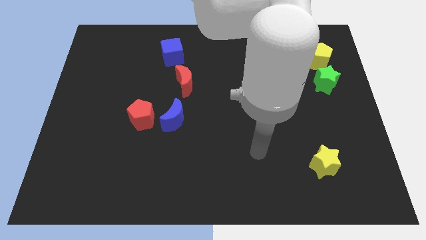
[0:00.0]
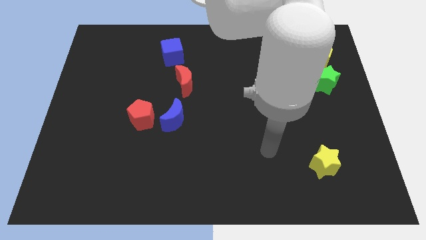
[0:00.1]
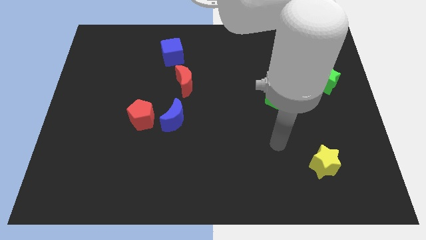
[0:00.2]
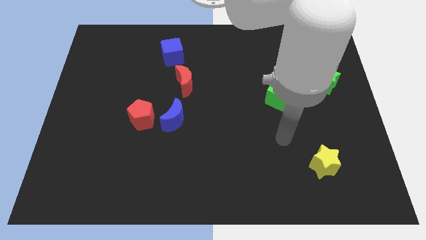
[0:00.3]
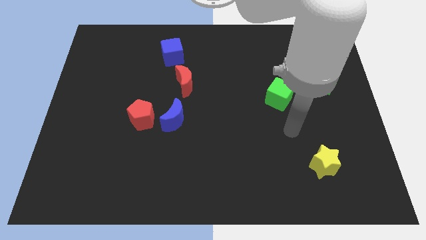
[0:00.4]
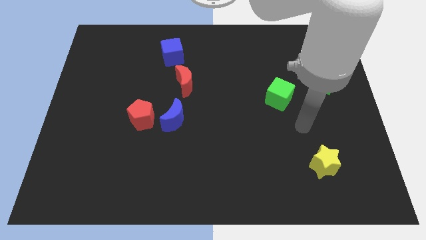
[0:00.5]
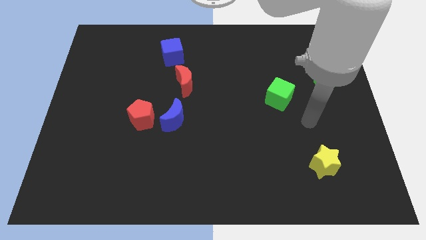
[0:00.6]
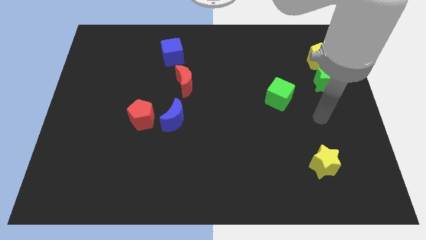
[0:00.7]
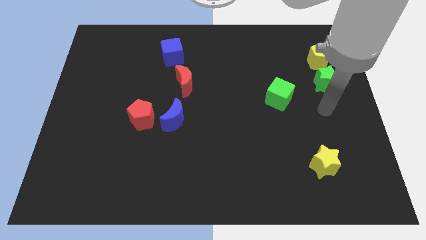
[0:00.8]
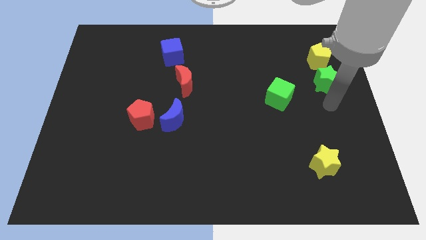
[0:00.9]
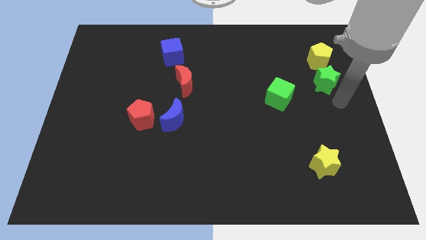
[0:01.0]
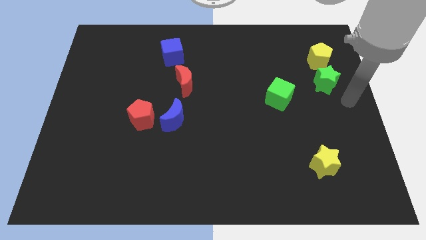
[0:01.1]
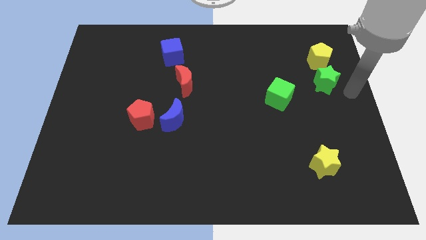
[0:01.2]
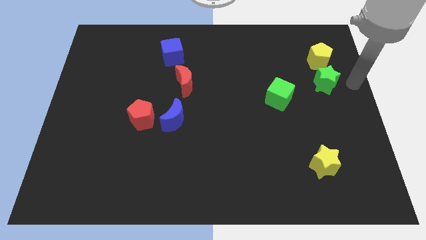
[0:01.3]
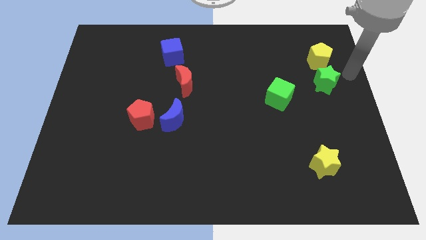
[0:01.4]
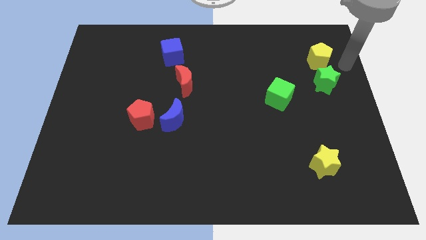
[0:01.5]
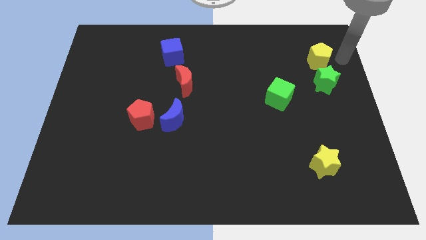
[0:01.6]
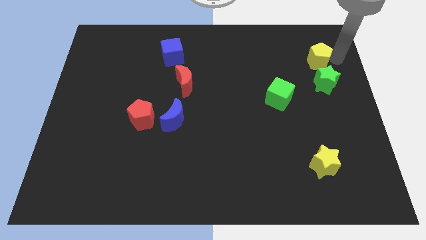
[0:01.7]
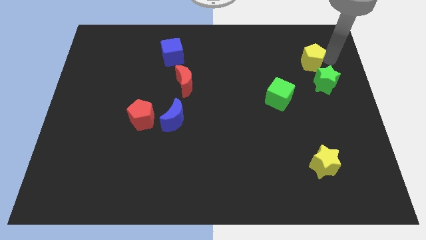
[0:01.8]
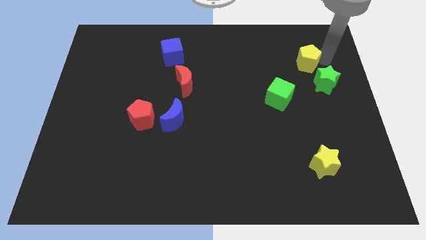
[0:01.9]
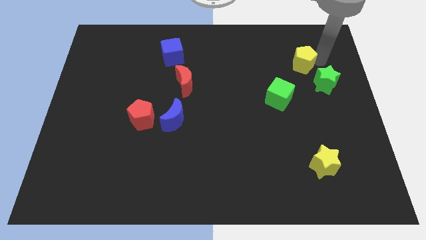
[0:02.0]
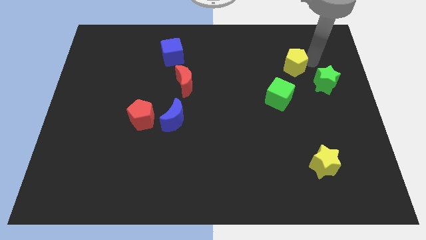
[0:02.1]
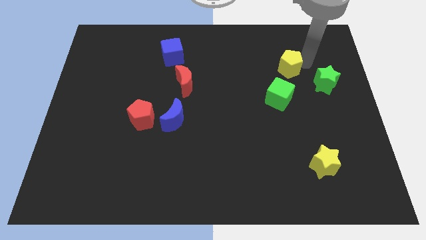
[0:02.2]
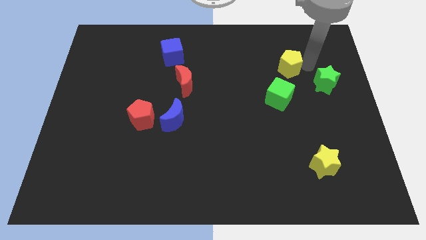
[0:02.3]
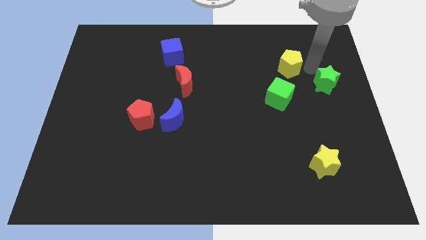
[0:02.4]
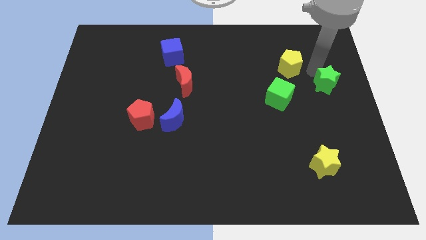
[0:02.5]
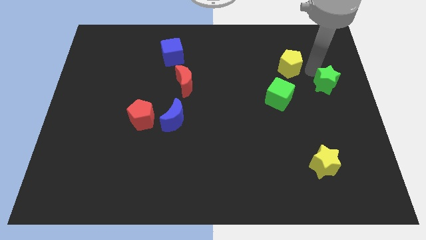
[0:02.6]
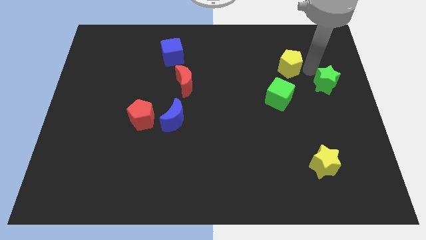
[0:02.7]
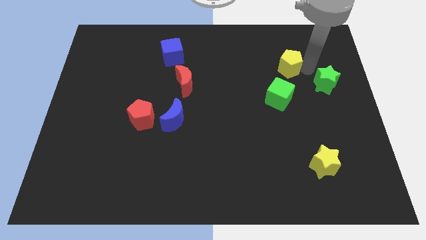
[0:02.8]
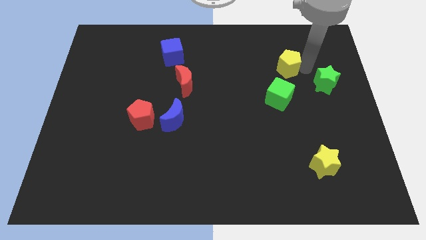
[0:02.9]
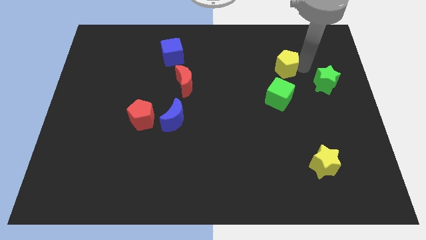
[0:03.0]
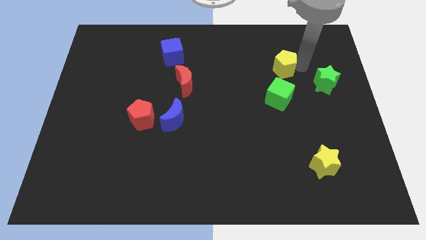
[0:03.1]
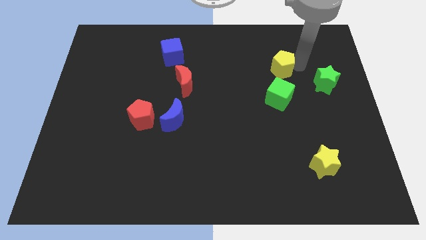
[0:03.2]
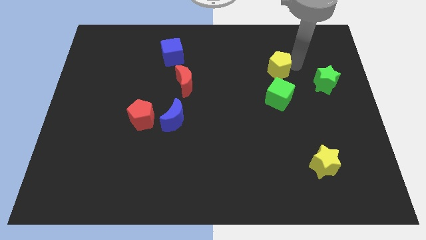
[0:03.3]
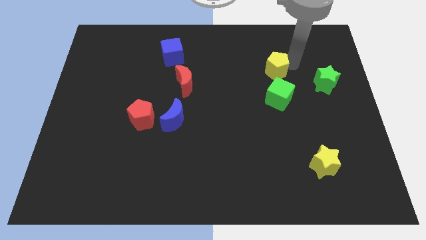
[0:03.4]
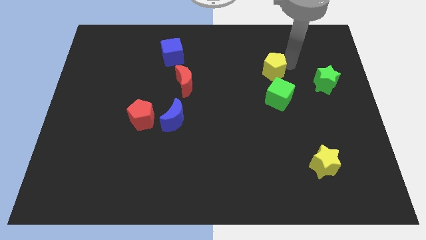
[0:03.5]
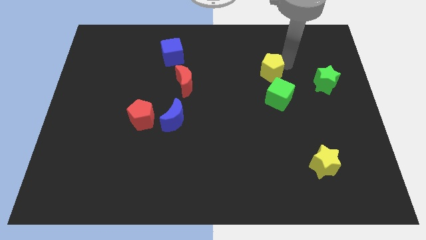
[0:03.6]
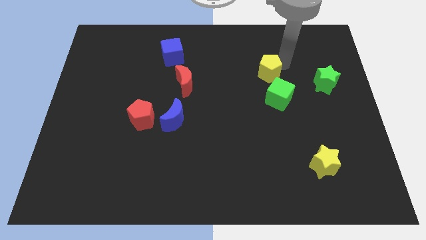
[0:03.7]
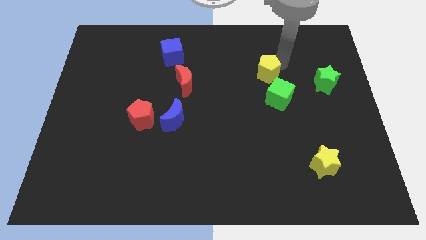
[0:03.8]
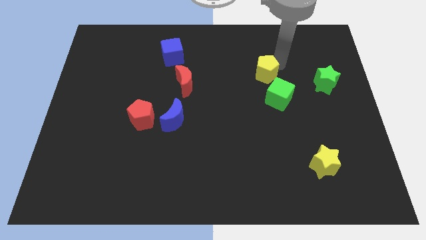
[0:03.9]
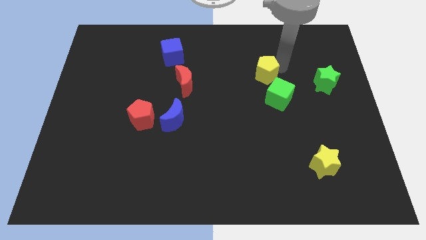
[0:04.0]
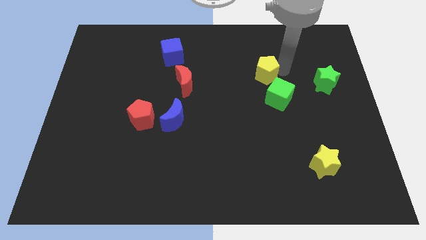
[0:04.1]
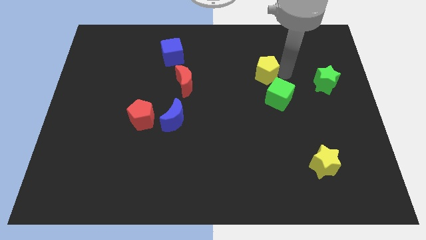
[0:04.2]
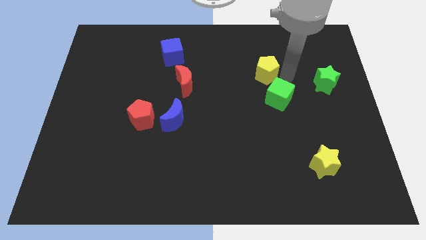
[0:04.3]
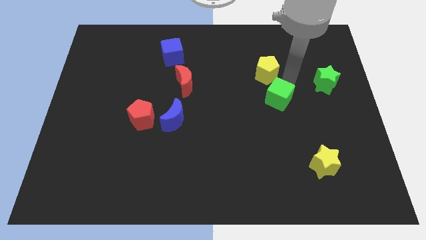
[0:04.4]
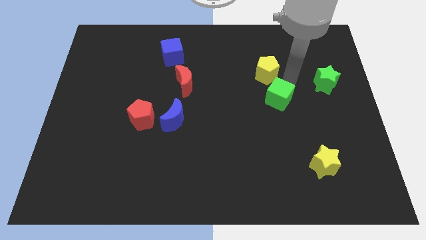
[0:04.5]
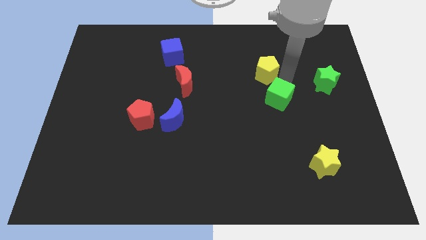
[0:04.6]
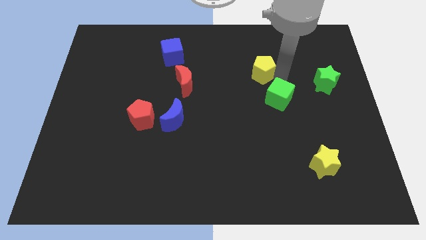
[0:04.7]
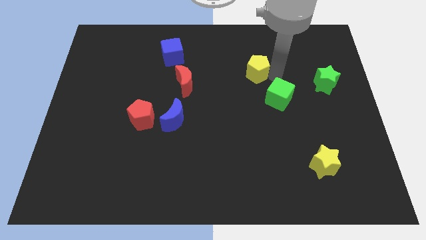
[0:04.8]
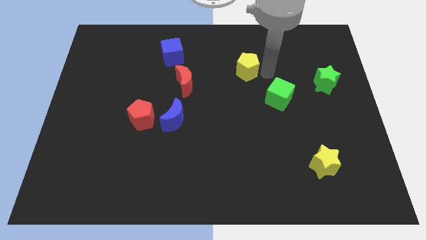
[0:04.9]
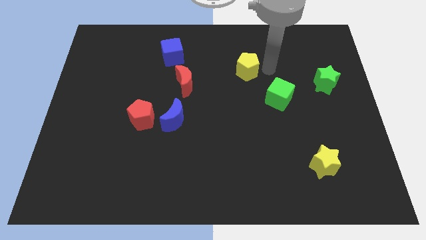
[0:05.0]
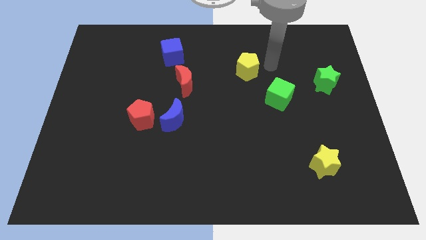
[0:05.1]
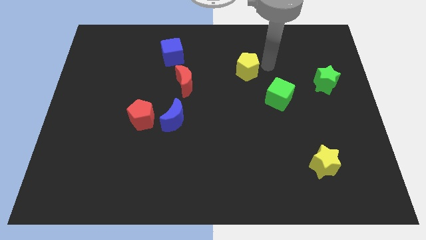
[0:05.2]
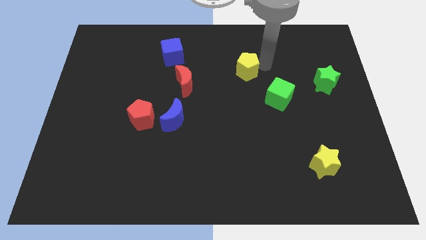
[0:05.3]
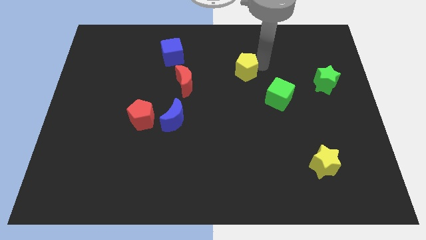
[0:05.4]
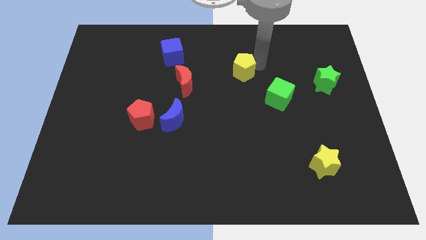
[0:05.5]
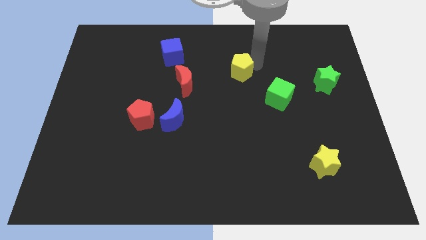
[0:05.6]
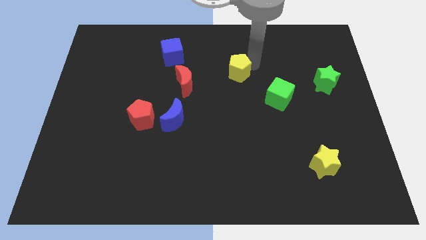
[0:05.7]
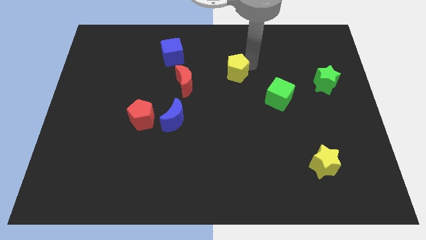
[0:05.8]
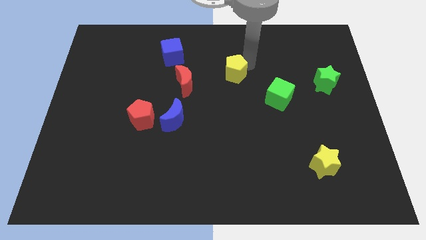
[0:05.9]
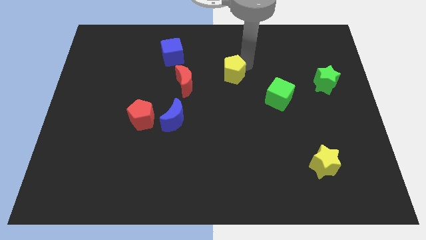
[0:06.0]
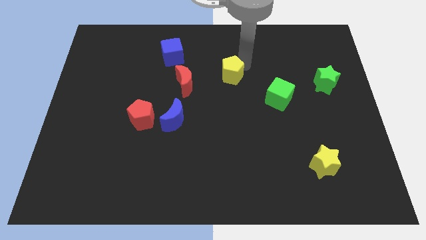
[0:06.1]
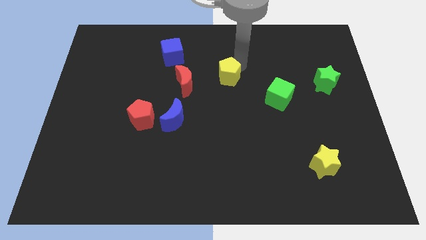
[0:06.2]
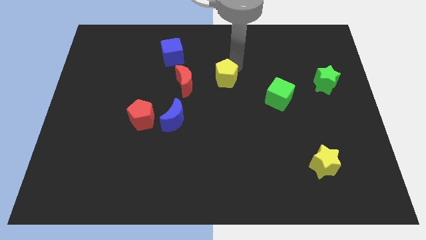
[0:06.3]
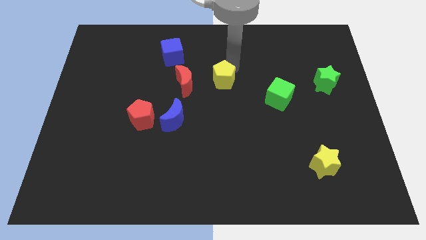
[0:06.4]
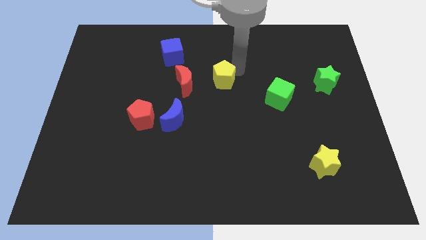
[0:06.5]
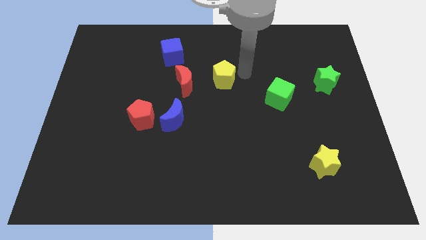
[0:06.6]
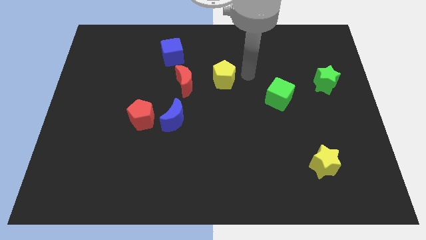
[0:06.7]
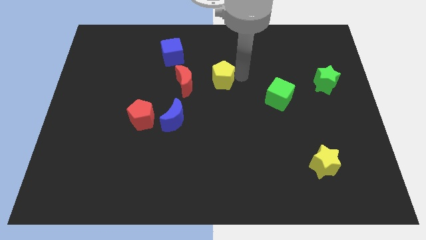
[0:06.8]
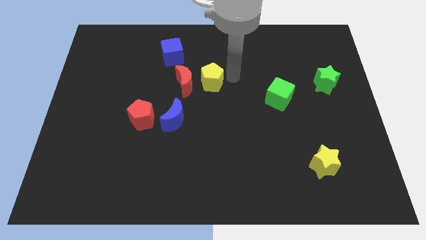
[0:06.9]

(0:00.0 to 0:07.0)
push the yellow pentagon close to the red moon

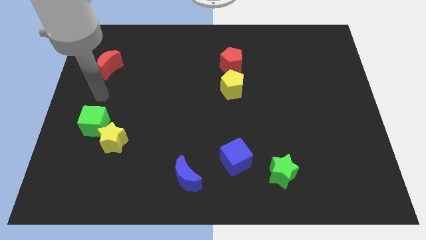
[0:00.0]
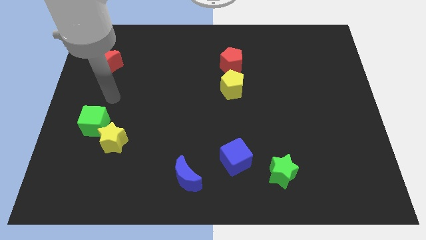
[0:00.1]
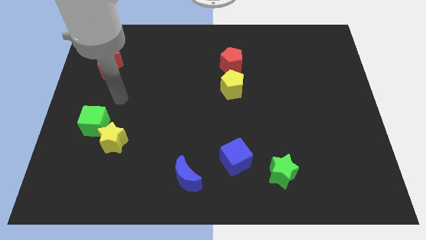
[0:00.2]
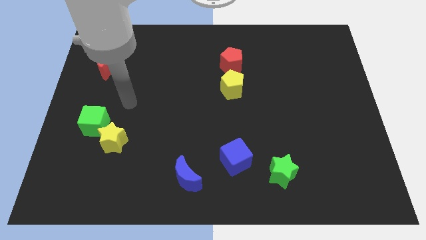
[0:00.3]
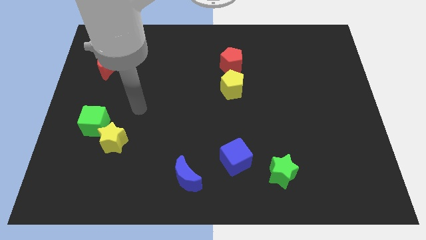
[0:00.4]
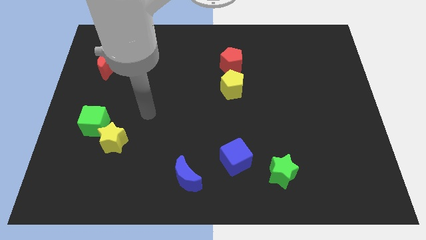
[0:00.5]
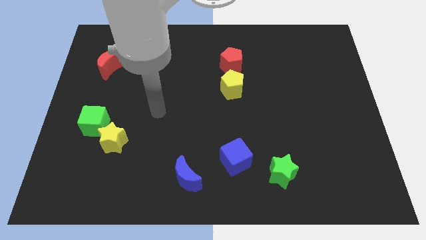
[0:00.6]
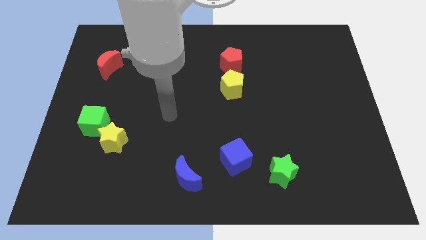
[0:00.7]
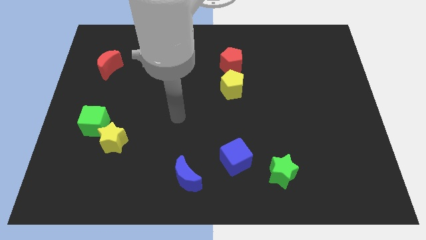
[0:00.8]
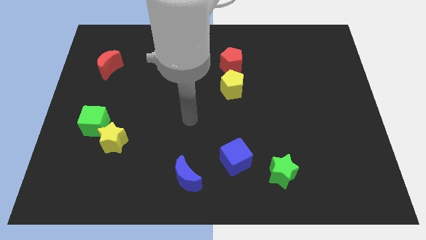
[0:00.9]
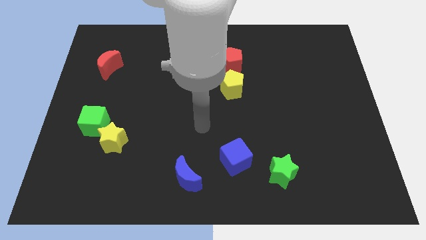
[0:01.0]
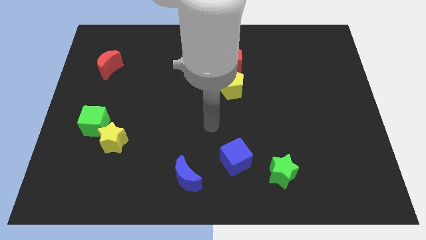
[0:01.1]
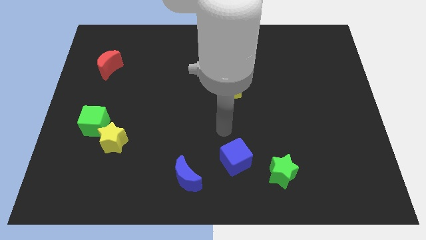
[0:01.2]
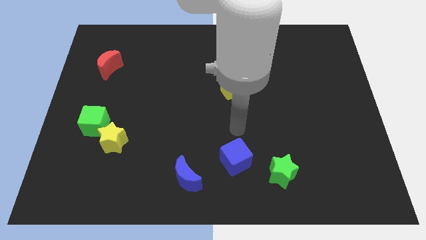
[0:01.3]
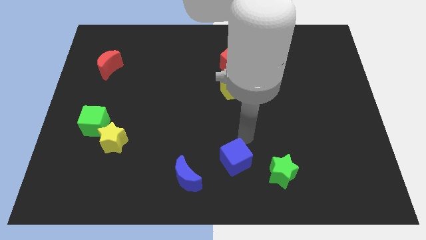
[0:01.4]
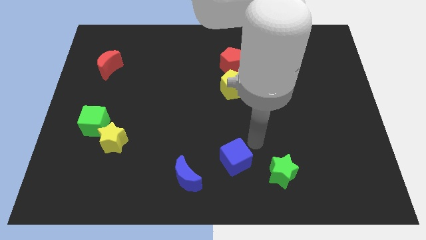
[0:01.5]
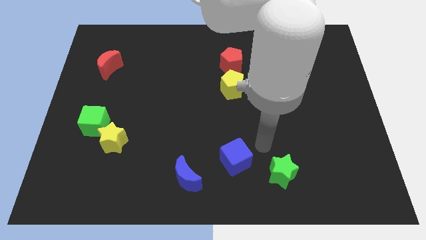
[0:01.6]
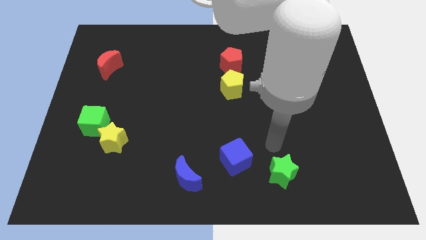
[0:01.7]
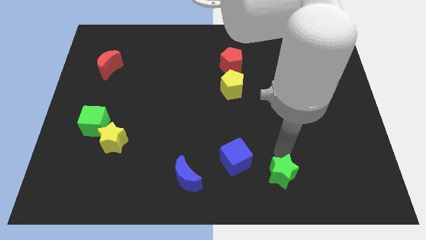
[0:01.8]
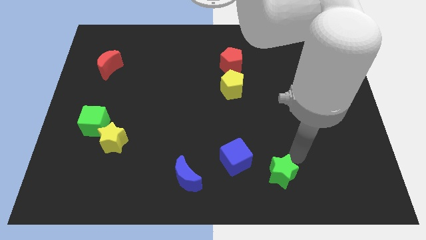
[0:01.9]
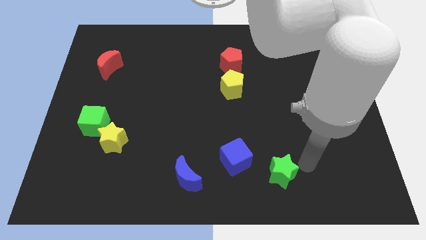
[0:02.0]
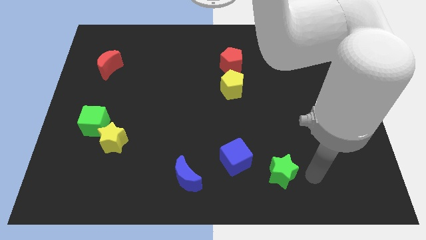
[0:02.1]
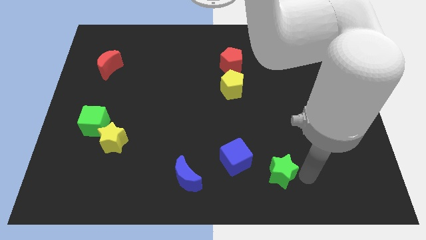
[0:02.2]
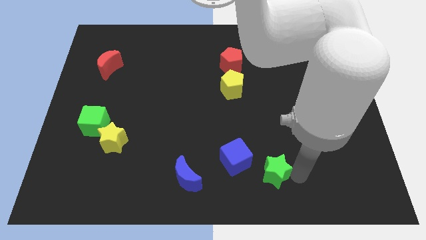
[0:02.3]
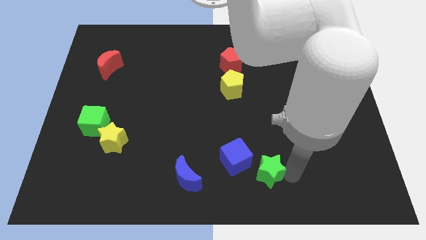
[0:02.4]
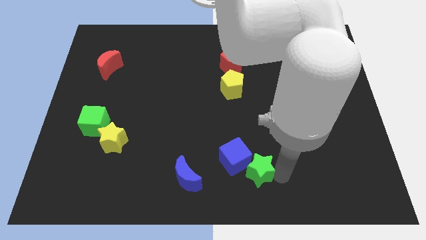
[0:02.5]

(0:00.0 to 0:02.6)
push the green star towards the blue cube
